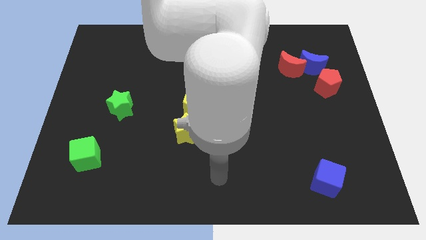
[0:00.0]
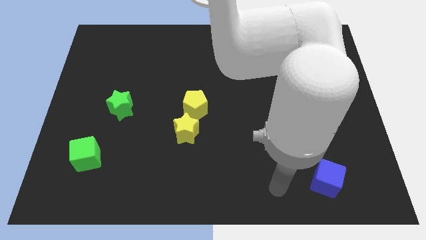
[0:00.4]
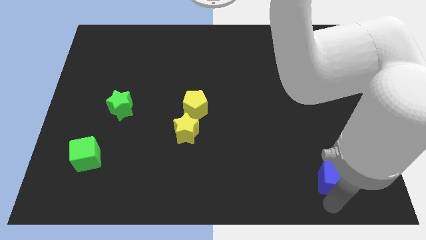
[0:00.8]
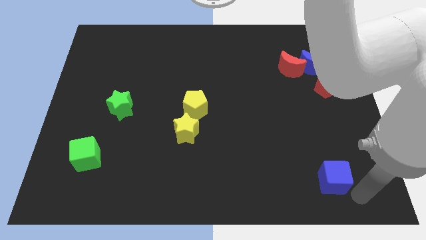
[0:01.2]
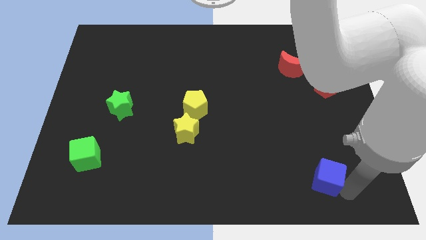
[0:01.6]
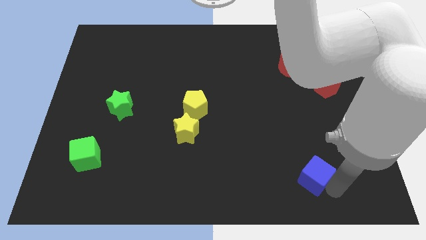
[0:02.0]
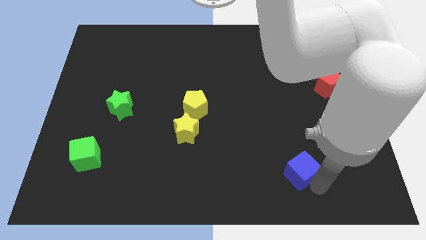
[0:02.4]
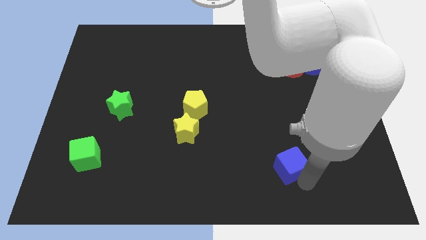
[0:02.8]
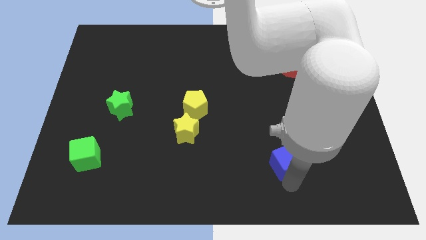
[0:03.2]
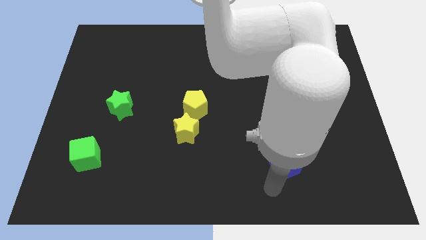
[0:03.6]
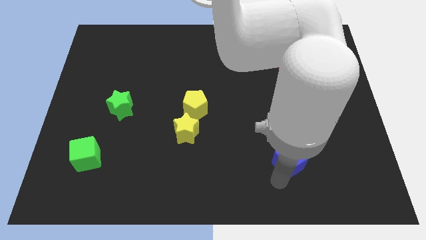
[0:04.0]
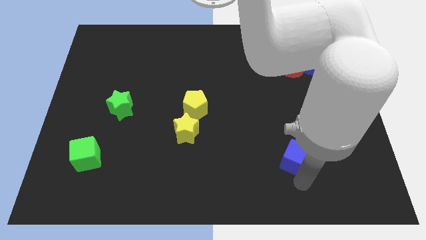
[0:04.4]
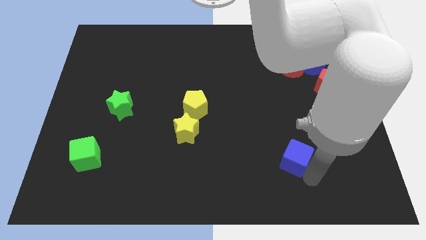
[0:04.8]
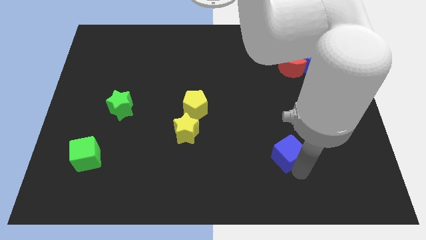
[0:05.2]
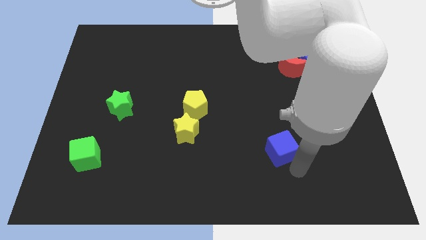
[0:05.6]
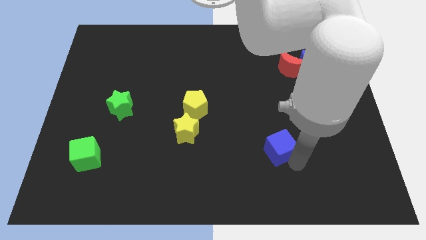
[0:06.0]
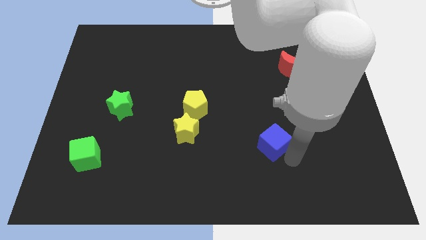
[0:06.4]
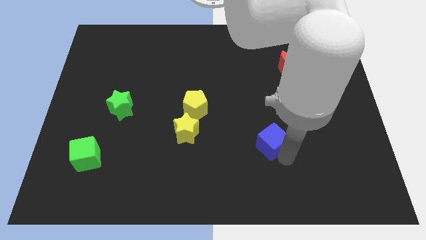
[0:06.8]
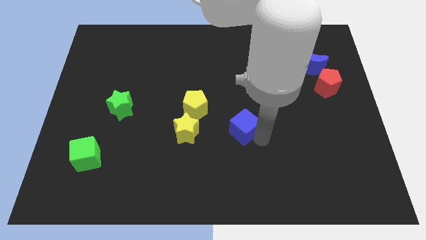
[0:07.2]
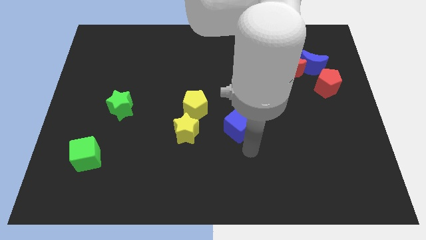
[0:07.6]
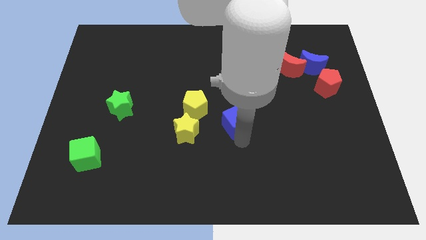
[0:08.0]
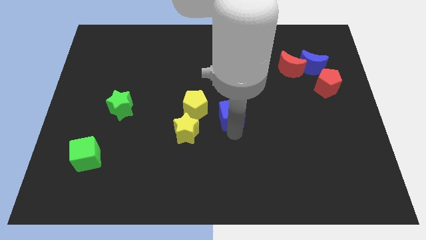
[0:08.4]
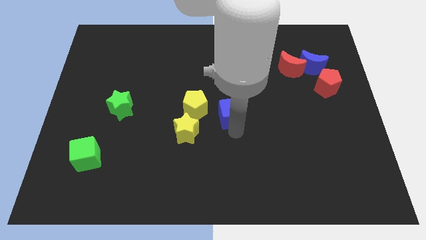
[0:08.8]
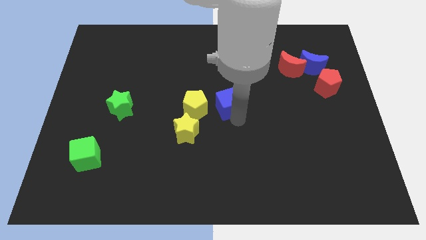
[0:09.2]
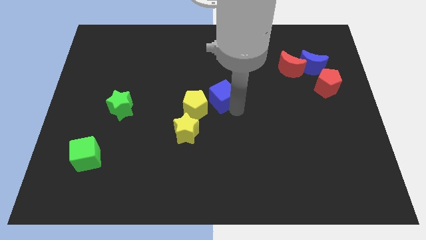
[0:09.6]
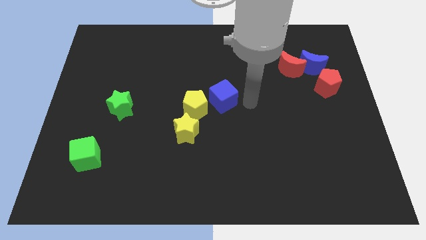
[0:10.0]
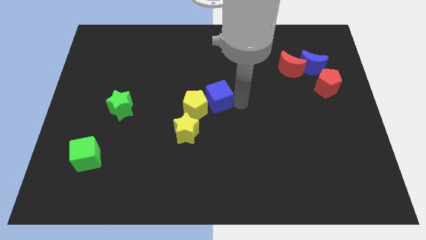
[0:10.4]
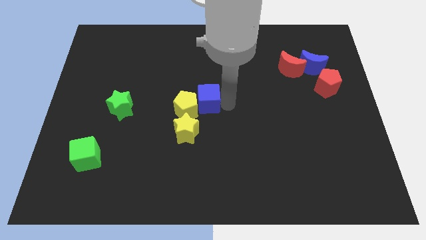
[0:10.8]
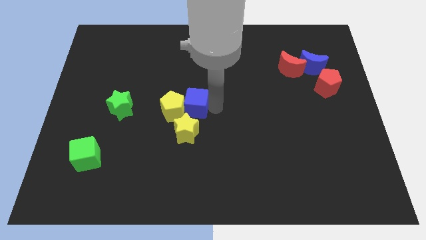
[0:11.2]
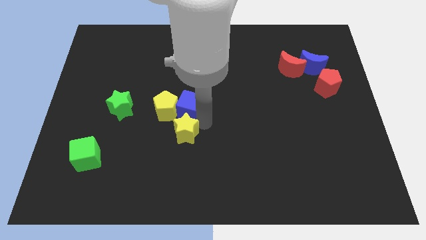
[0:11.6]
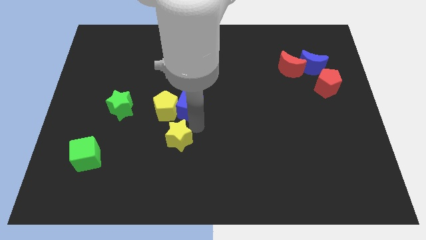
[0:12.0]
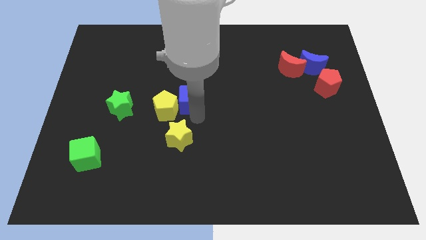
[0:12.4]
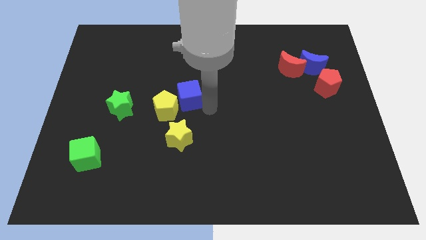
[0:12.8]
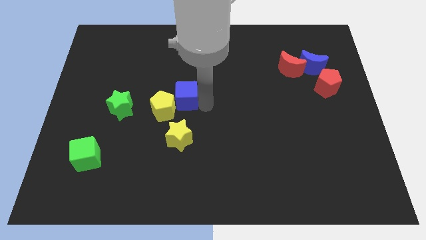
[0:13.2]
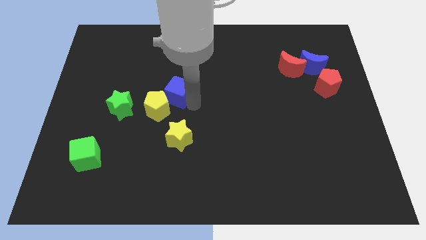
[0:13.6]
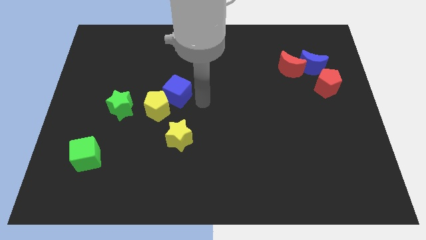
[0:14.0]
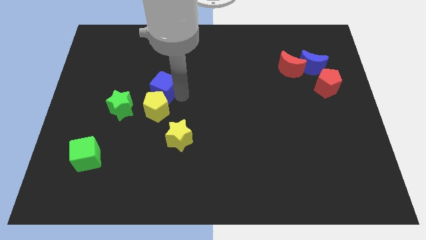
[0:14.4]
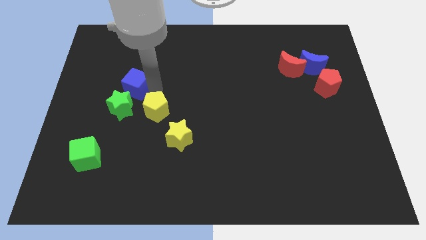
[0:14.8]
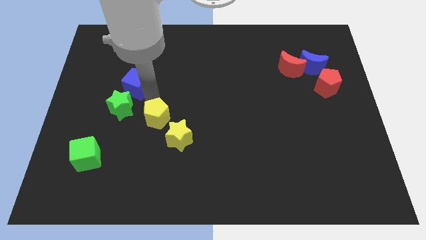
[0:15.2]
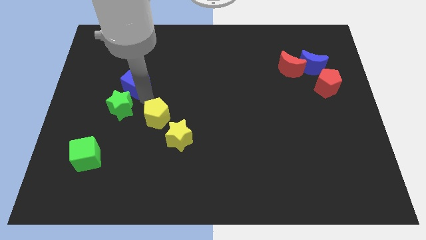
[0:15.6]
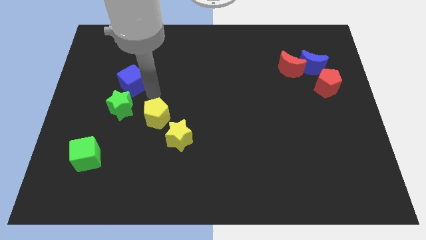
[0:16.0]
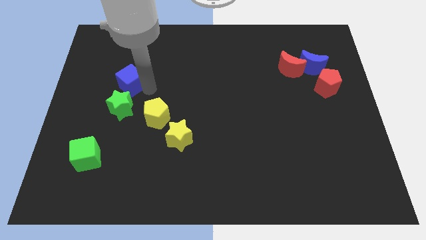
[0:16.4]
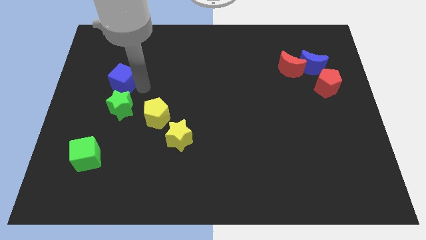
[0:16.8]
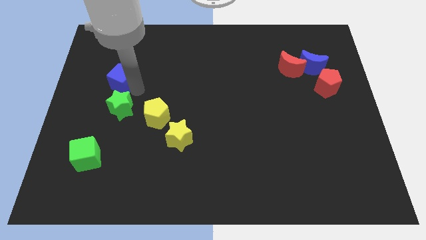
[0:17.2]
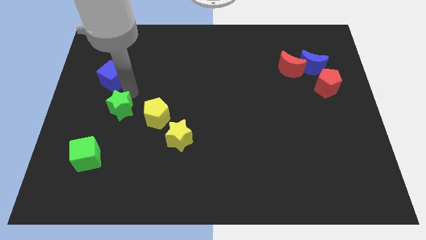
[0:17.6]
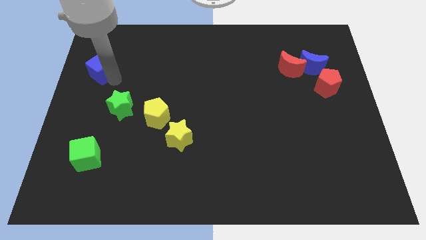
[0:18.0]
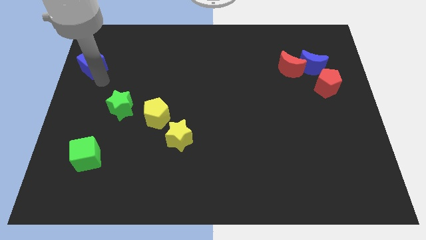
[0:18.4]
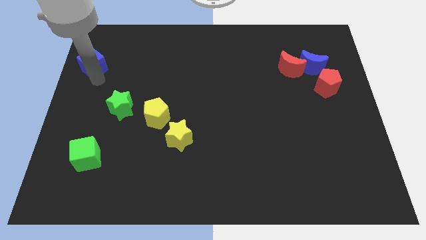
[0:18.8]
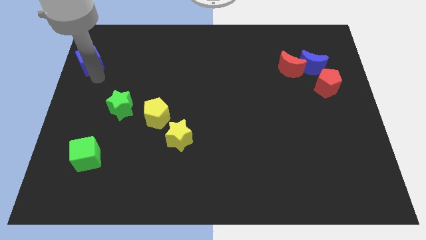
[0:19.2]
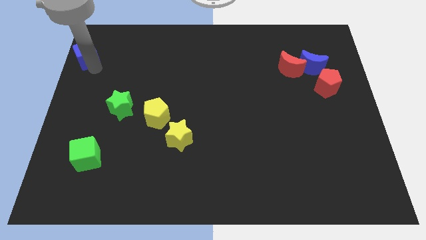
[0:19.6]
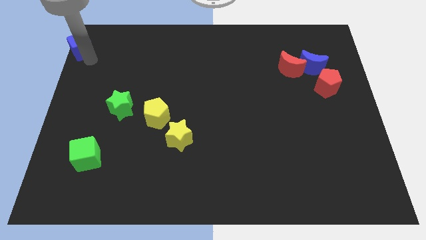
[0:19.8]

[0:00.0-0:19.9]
slide the blue cube to the top left corner

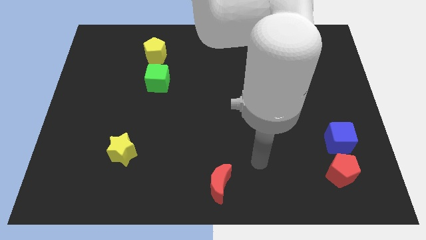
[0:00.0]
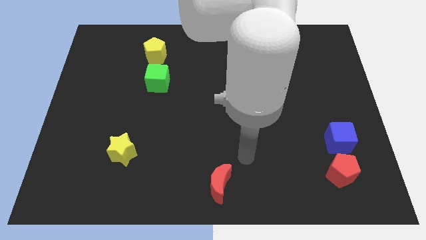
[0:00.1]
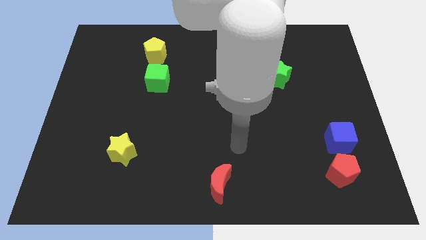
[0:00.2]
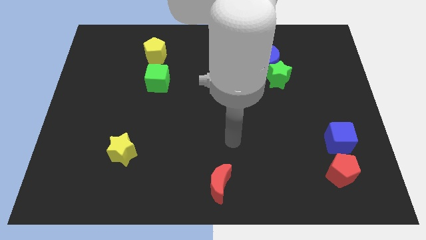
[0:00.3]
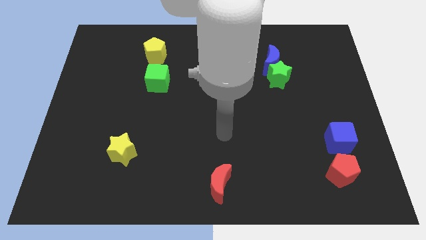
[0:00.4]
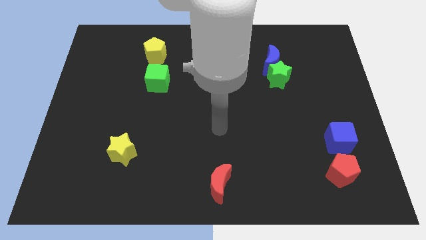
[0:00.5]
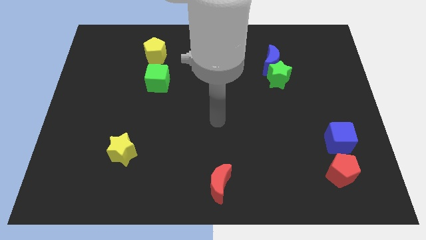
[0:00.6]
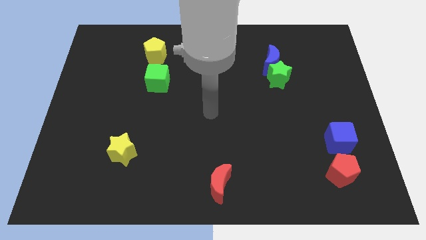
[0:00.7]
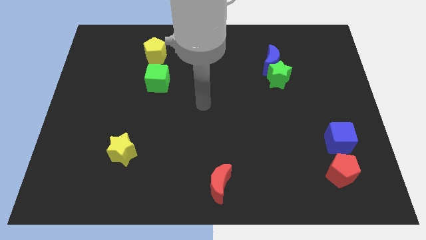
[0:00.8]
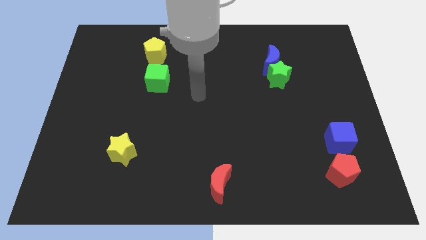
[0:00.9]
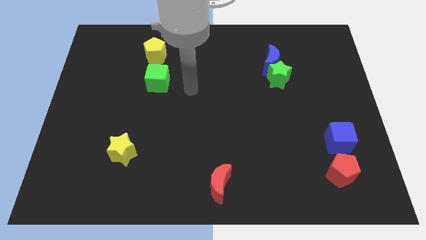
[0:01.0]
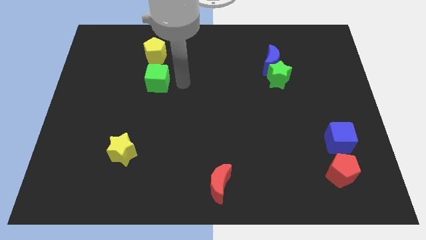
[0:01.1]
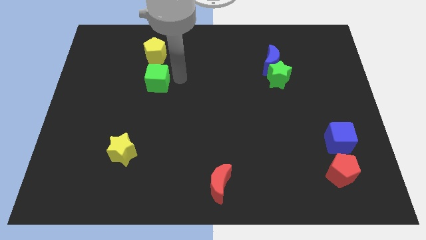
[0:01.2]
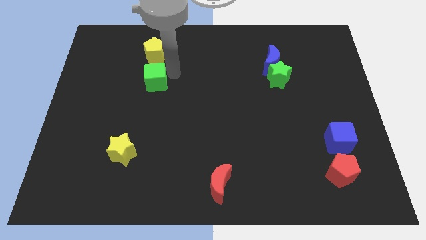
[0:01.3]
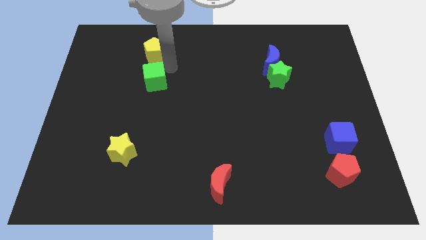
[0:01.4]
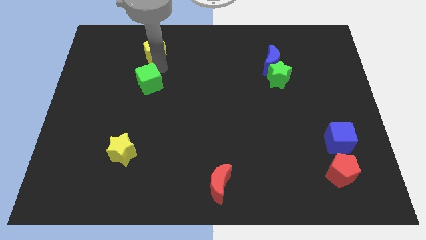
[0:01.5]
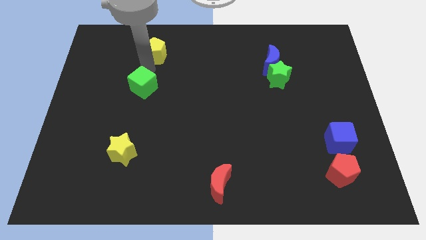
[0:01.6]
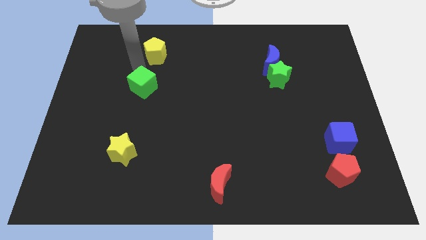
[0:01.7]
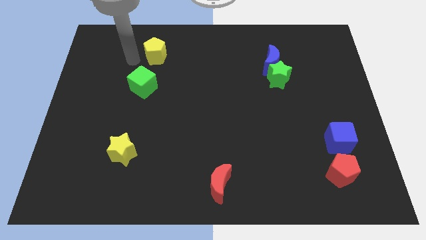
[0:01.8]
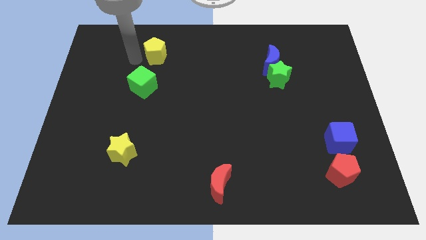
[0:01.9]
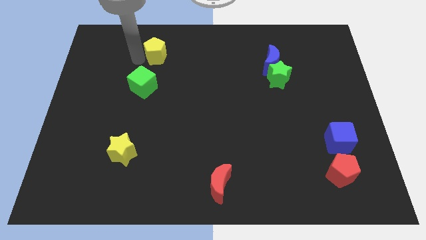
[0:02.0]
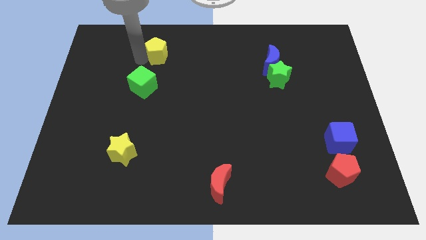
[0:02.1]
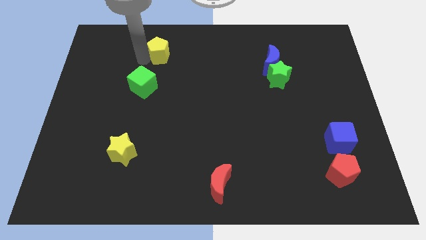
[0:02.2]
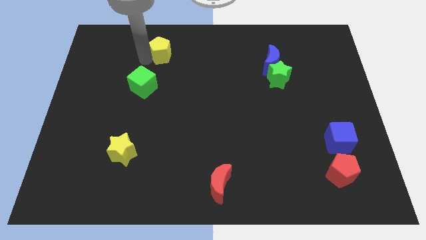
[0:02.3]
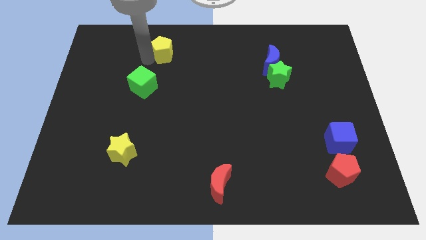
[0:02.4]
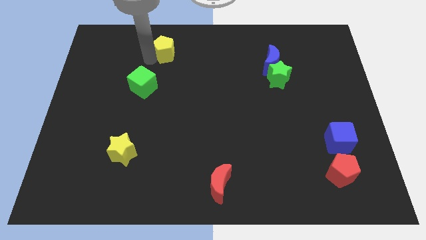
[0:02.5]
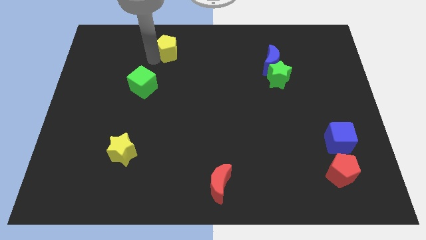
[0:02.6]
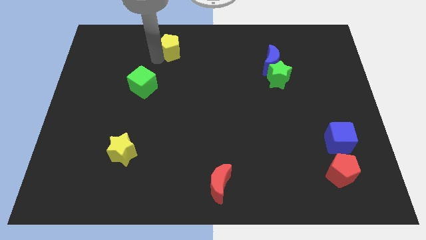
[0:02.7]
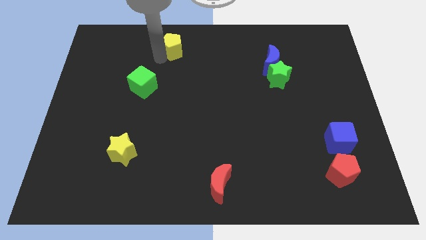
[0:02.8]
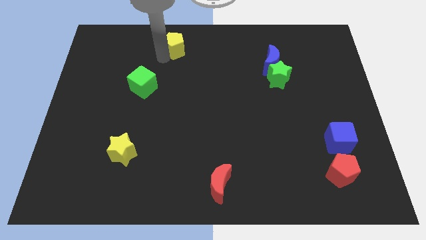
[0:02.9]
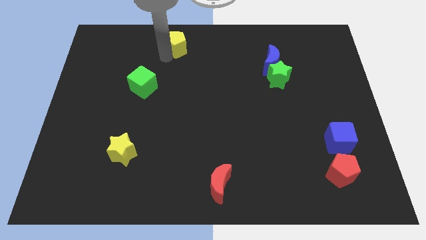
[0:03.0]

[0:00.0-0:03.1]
push the yellow pentagon to the top side
